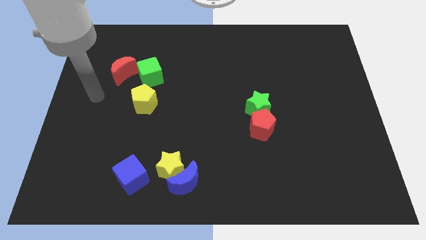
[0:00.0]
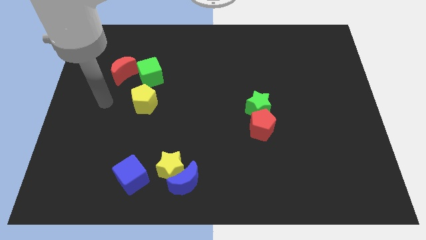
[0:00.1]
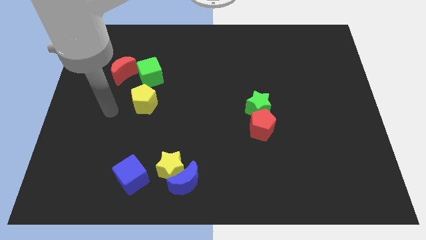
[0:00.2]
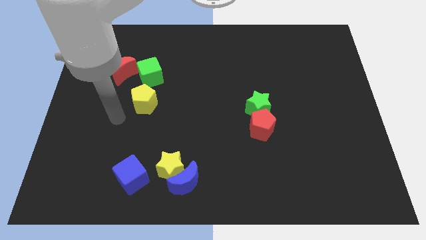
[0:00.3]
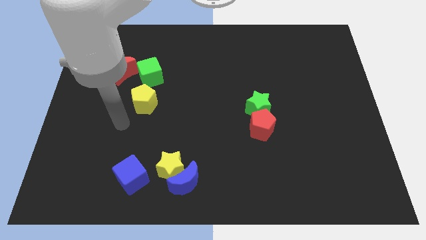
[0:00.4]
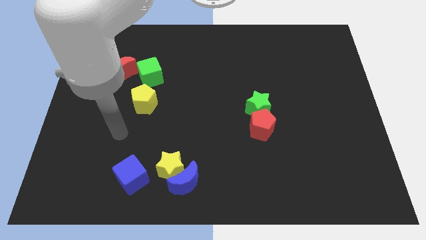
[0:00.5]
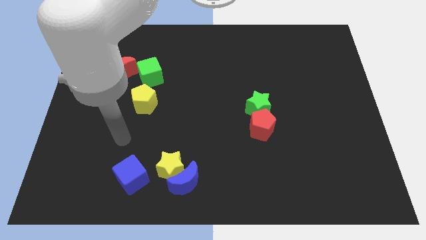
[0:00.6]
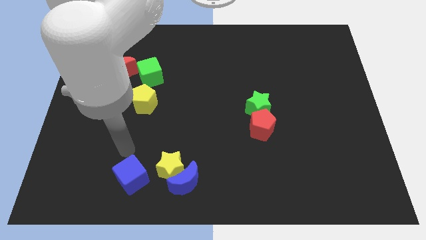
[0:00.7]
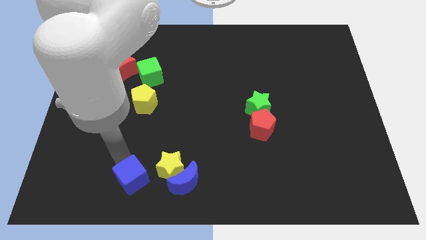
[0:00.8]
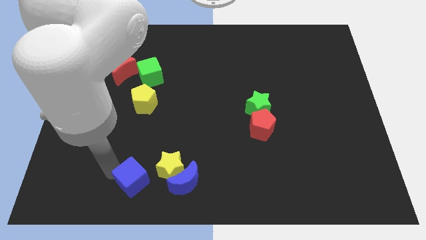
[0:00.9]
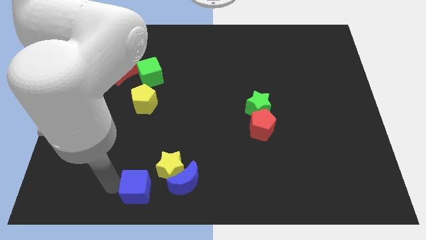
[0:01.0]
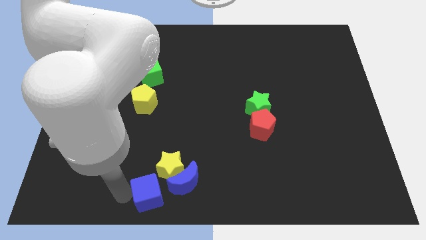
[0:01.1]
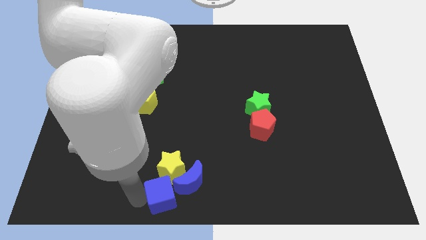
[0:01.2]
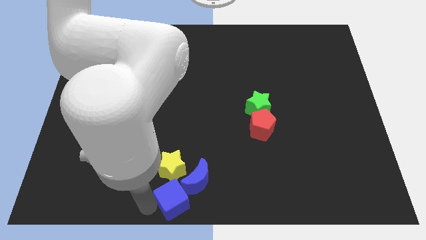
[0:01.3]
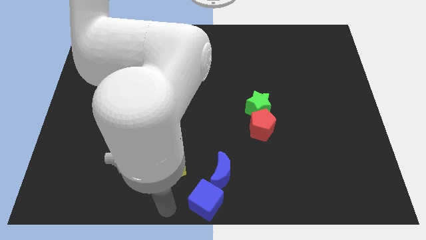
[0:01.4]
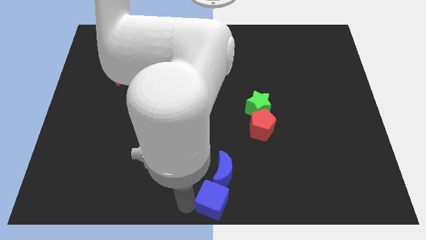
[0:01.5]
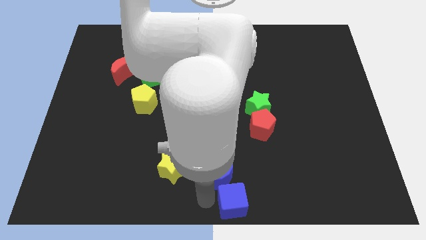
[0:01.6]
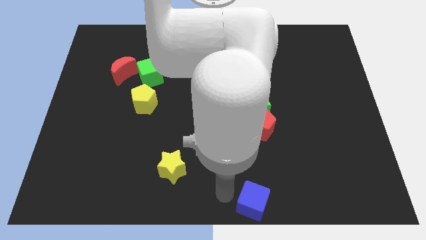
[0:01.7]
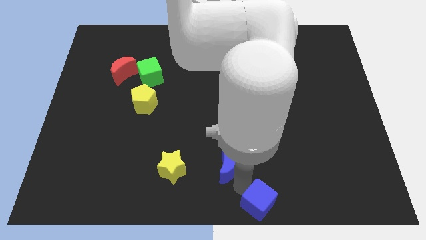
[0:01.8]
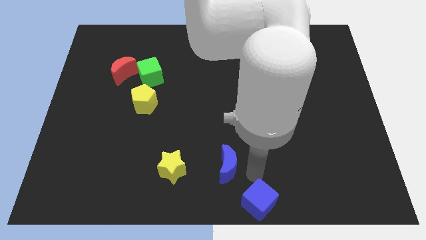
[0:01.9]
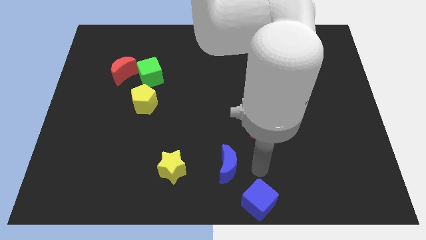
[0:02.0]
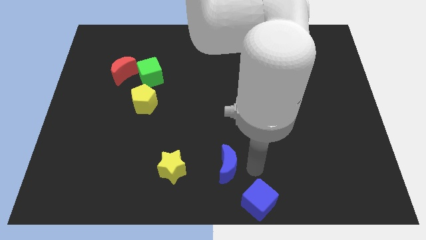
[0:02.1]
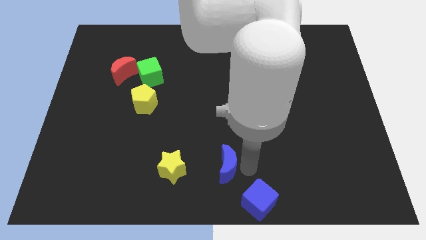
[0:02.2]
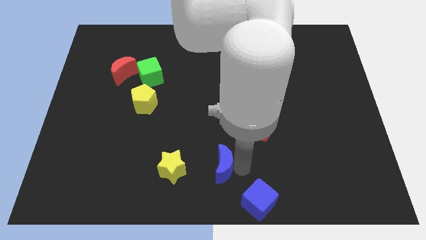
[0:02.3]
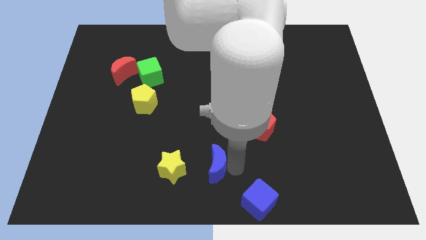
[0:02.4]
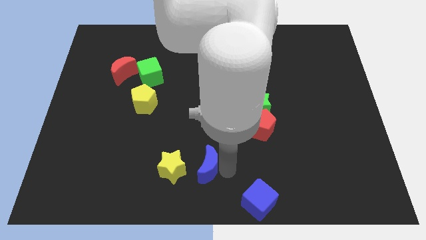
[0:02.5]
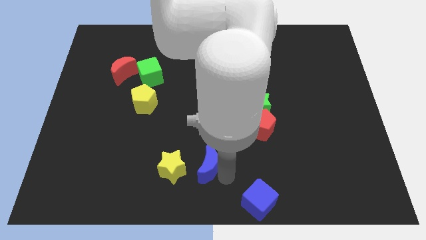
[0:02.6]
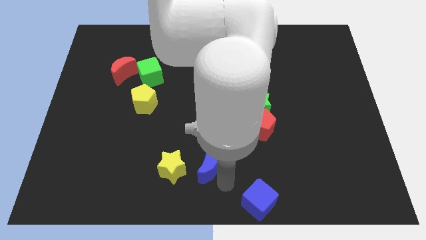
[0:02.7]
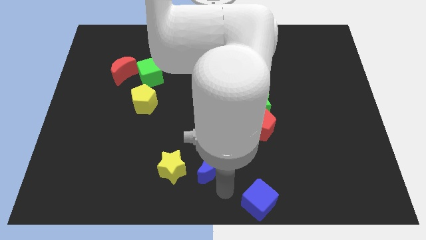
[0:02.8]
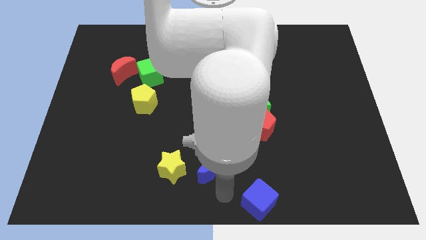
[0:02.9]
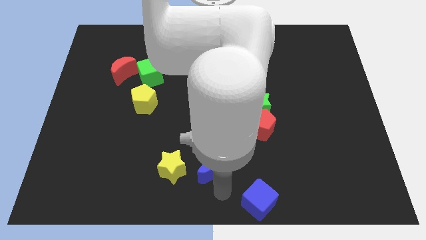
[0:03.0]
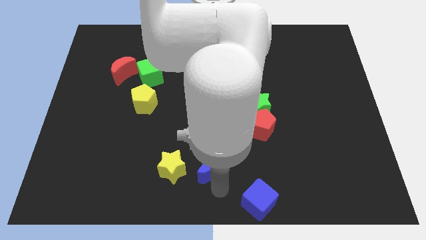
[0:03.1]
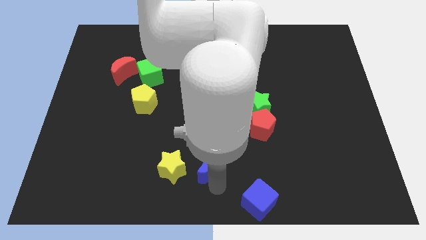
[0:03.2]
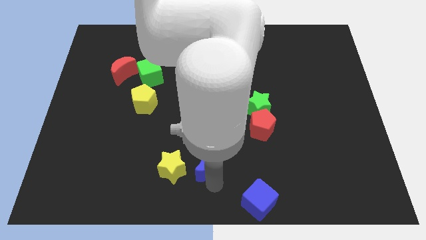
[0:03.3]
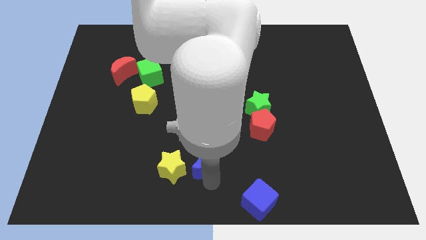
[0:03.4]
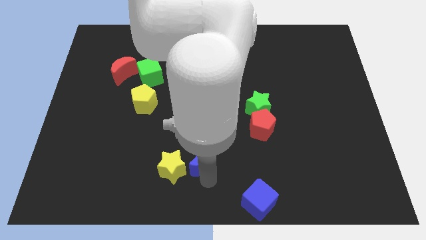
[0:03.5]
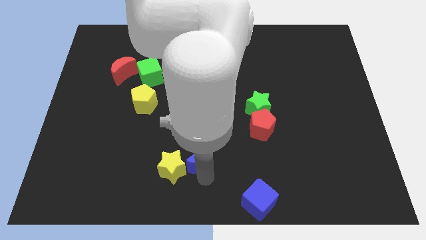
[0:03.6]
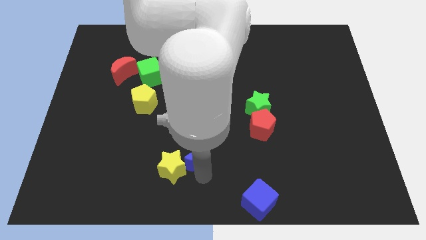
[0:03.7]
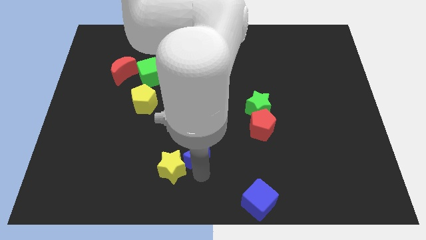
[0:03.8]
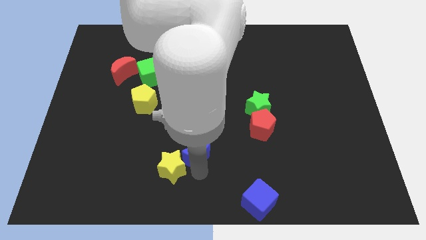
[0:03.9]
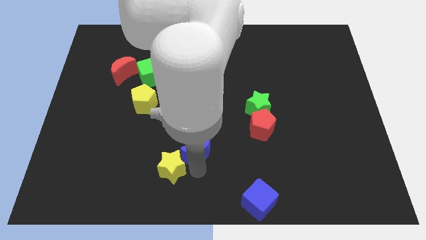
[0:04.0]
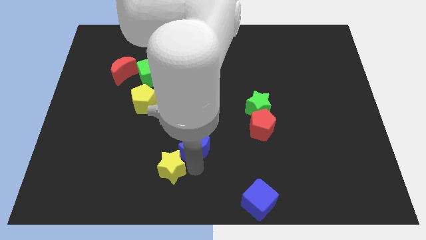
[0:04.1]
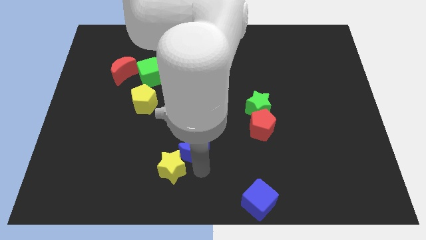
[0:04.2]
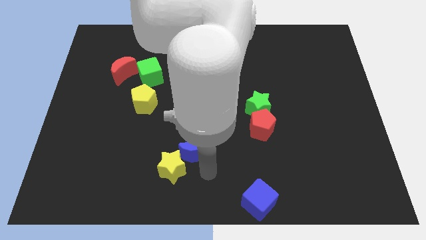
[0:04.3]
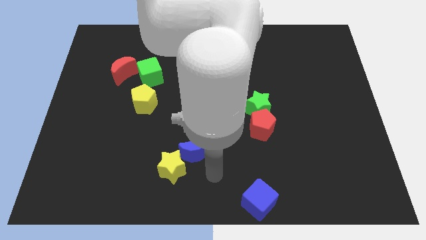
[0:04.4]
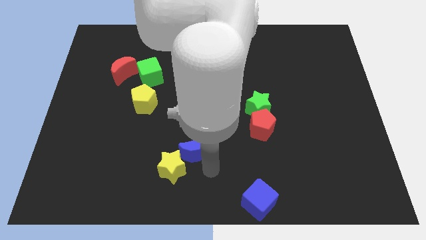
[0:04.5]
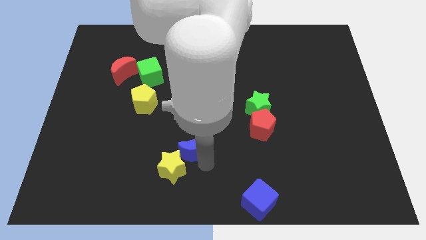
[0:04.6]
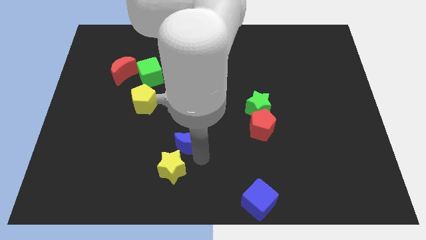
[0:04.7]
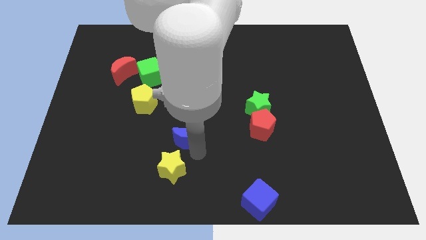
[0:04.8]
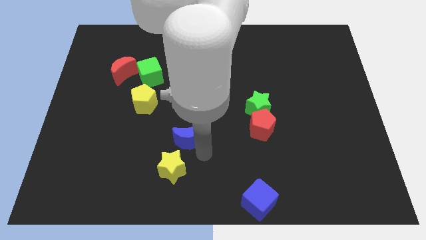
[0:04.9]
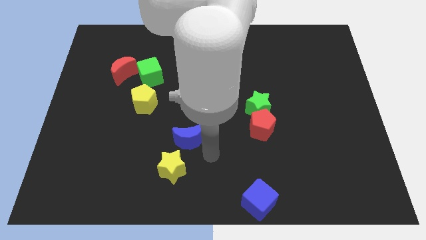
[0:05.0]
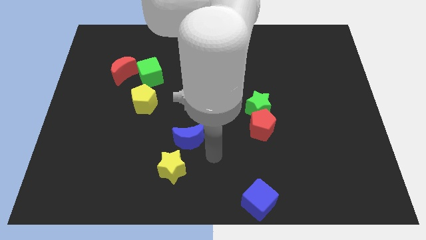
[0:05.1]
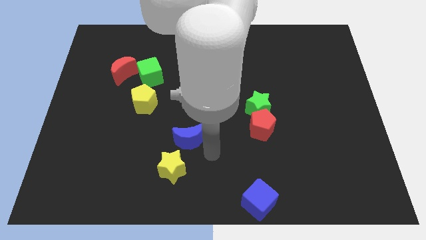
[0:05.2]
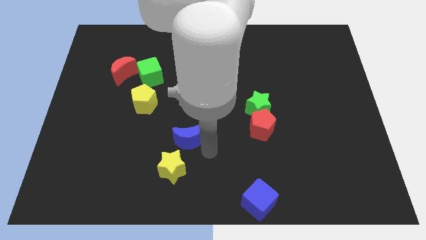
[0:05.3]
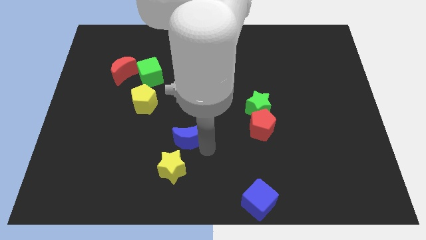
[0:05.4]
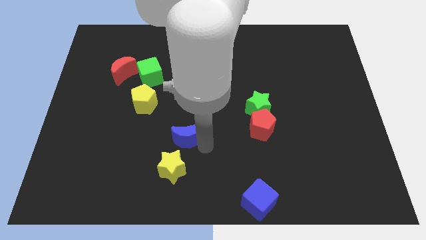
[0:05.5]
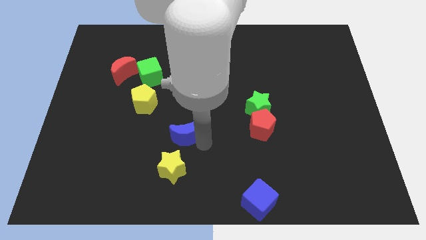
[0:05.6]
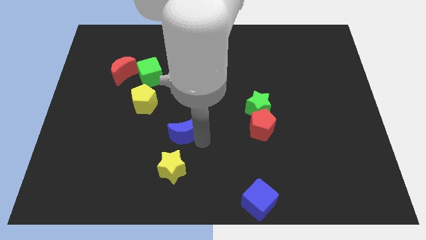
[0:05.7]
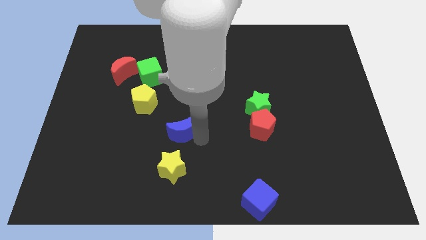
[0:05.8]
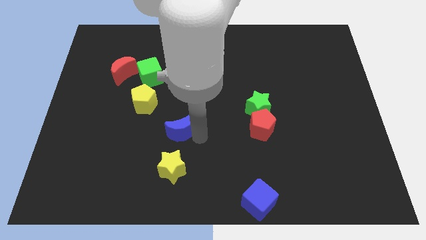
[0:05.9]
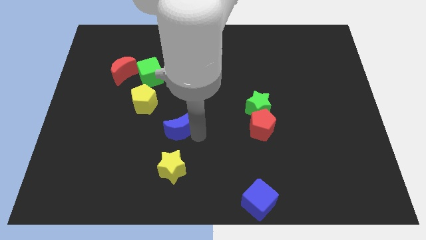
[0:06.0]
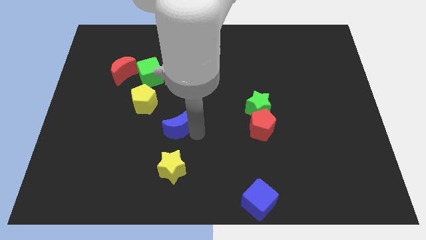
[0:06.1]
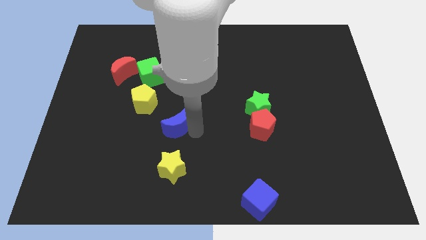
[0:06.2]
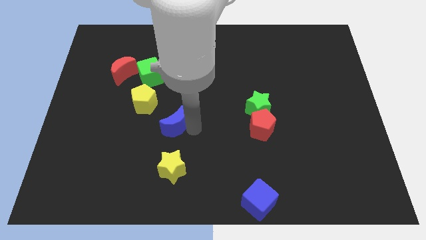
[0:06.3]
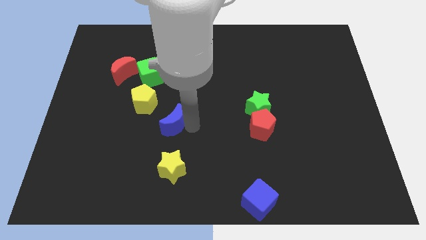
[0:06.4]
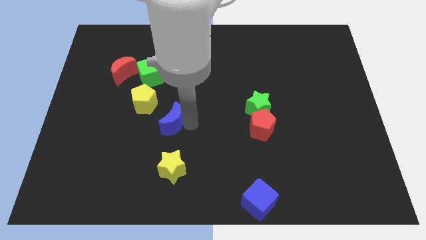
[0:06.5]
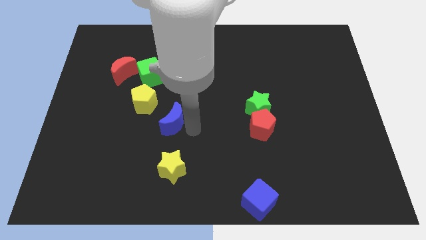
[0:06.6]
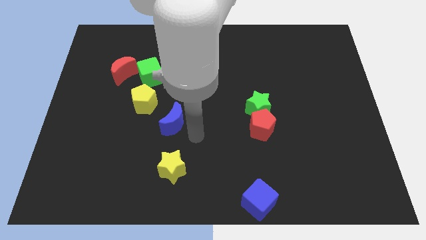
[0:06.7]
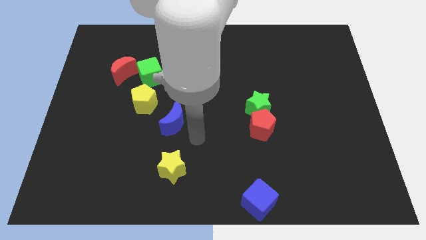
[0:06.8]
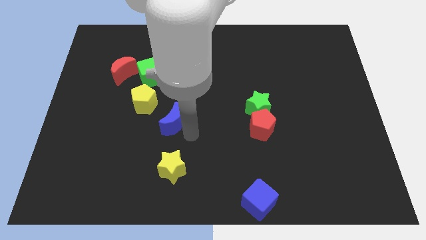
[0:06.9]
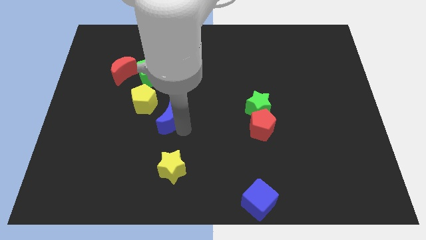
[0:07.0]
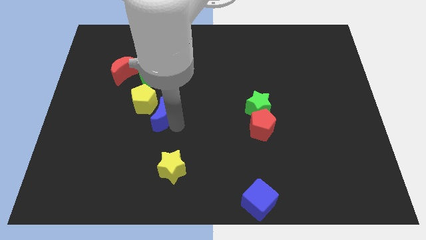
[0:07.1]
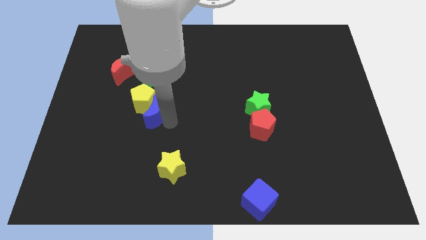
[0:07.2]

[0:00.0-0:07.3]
move the blue moon towards the yellow pentagon
